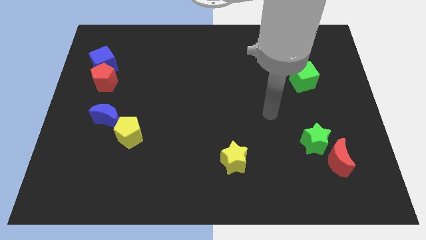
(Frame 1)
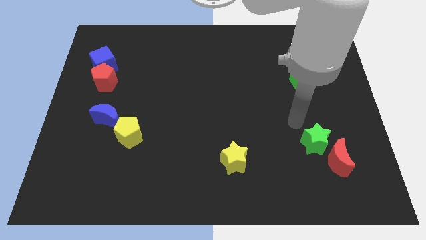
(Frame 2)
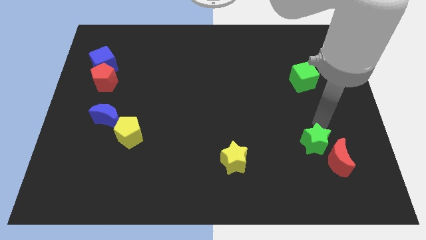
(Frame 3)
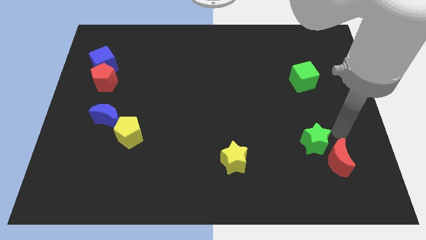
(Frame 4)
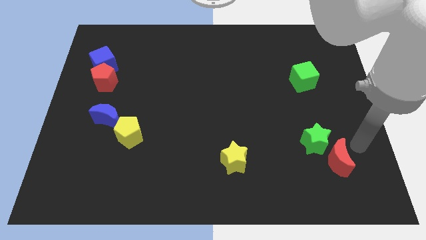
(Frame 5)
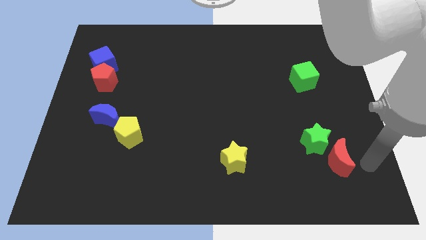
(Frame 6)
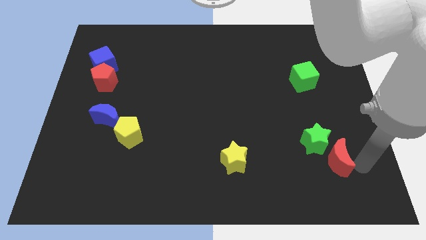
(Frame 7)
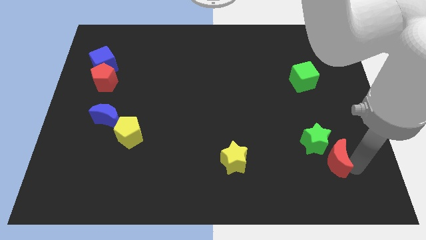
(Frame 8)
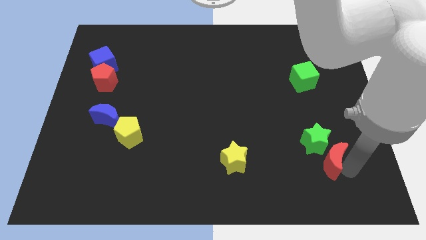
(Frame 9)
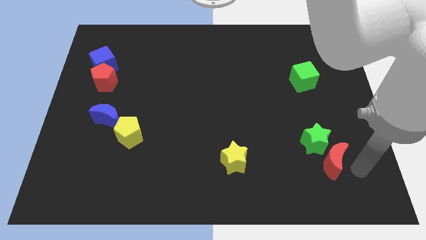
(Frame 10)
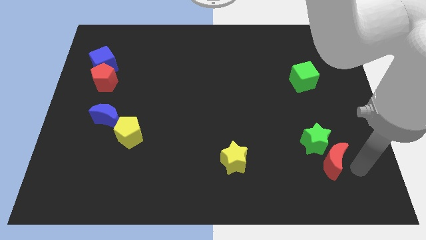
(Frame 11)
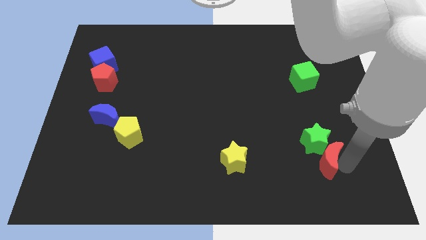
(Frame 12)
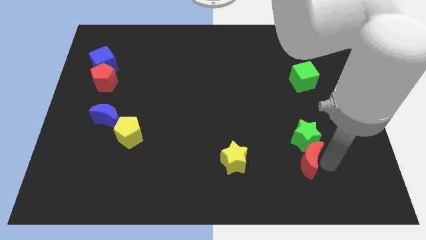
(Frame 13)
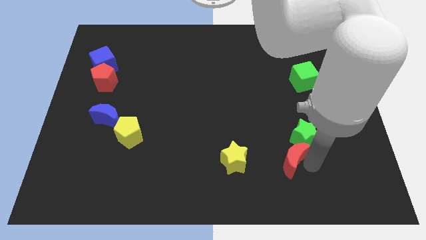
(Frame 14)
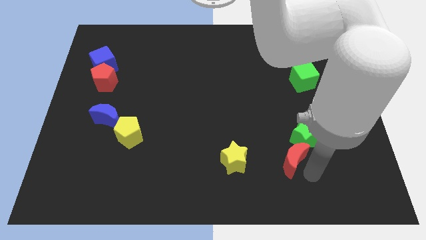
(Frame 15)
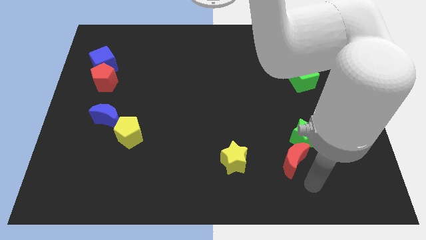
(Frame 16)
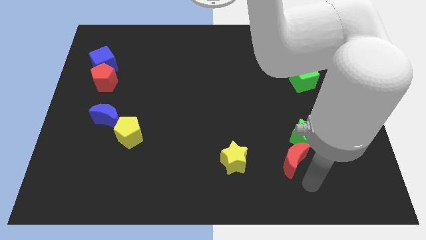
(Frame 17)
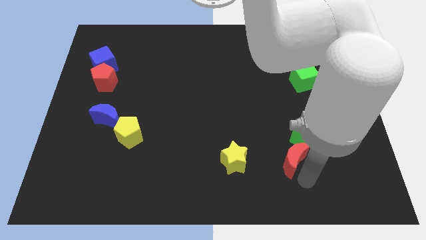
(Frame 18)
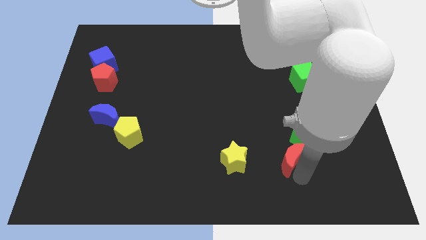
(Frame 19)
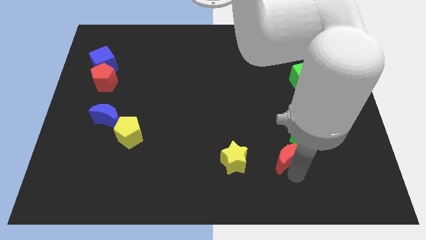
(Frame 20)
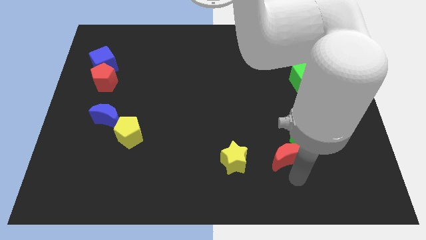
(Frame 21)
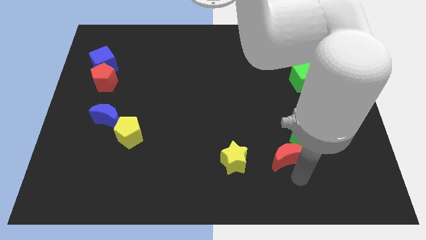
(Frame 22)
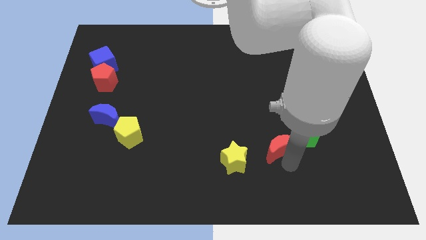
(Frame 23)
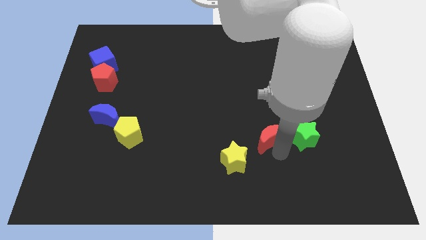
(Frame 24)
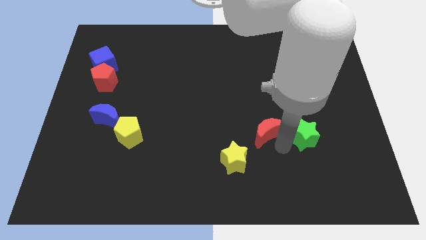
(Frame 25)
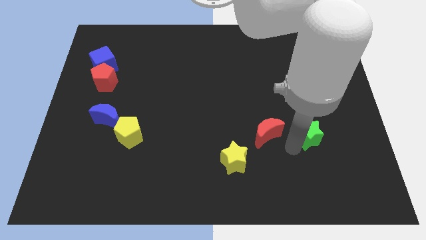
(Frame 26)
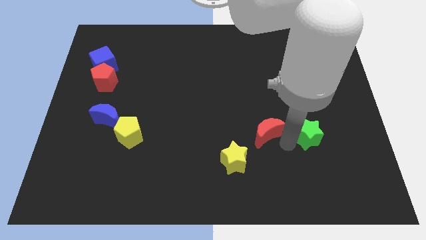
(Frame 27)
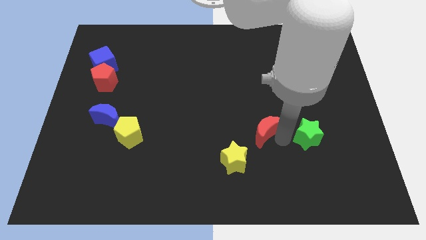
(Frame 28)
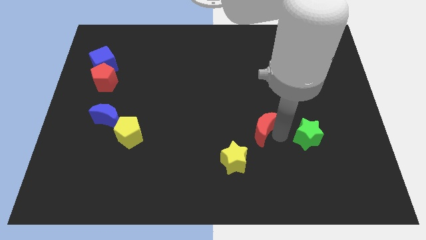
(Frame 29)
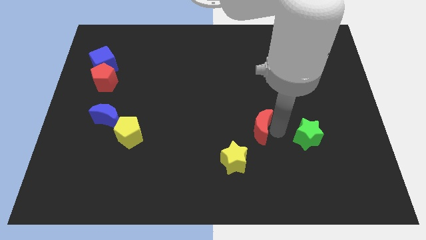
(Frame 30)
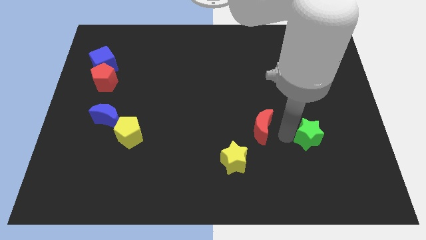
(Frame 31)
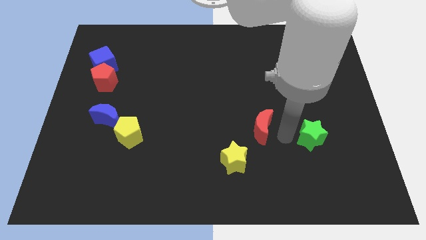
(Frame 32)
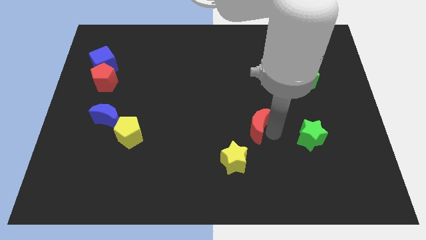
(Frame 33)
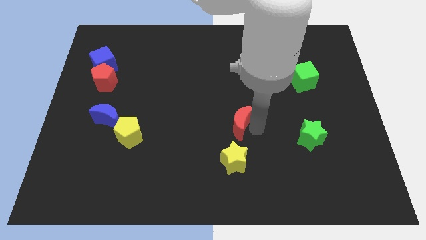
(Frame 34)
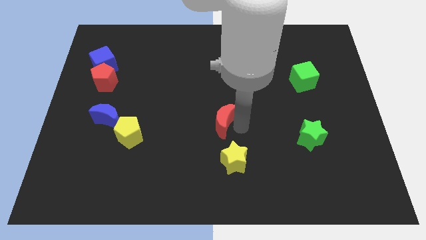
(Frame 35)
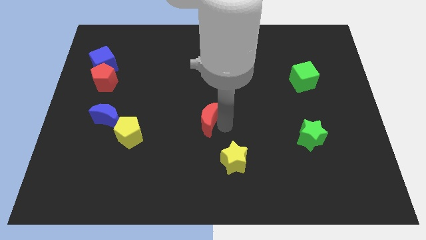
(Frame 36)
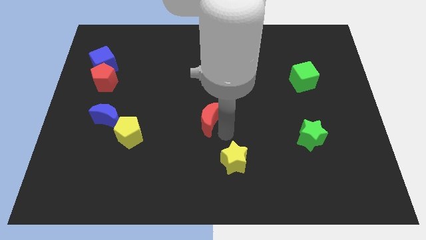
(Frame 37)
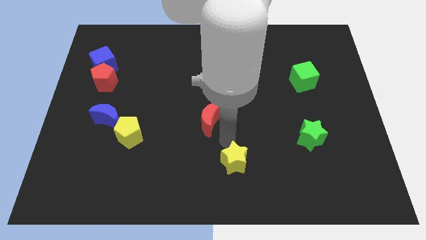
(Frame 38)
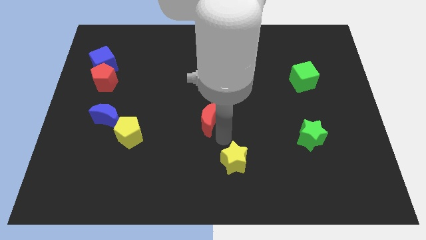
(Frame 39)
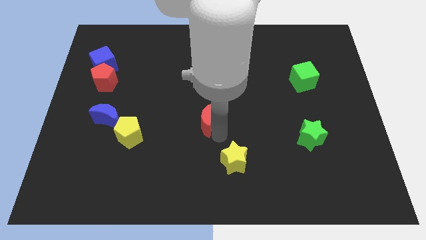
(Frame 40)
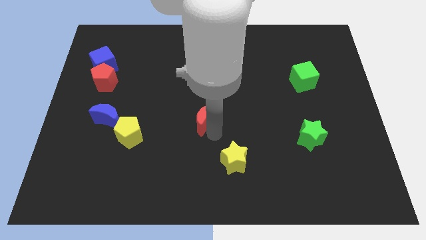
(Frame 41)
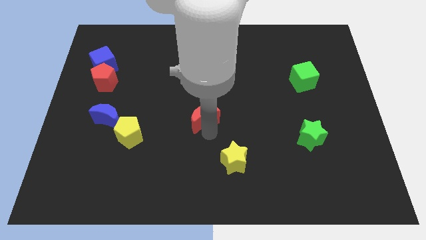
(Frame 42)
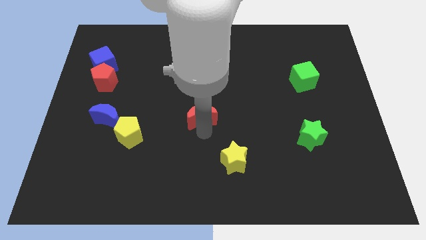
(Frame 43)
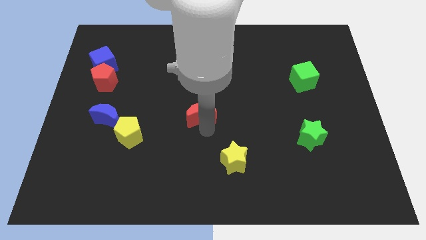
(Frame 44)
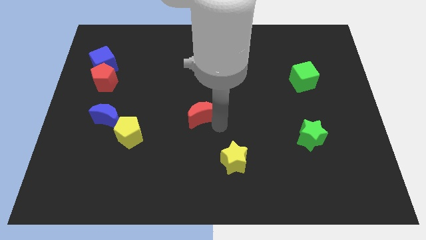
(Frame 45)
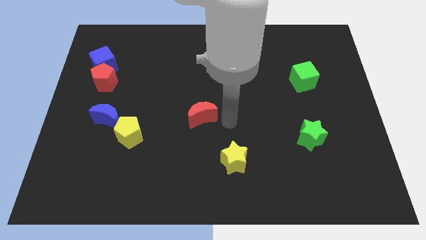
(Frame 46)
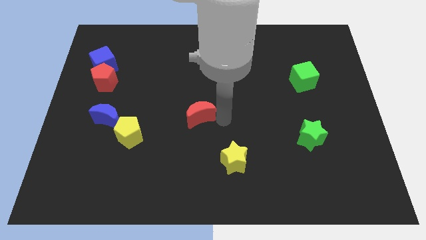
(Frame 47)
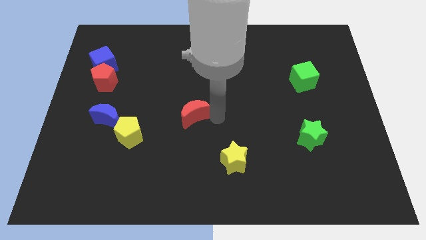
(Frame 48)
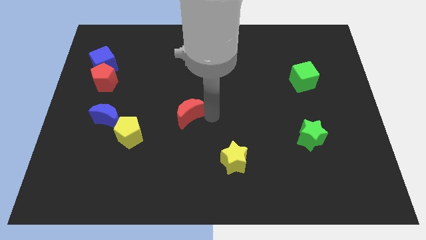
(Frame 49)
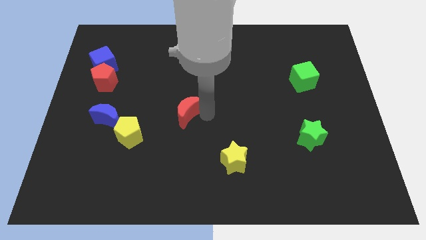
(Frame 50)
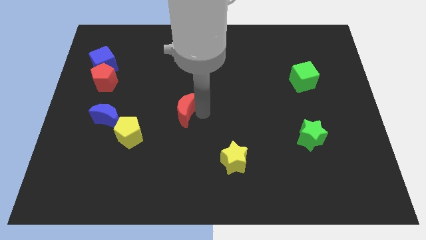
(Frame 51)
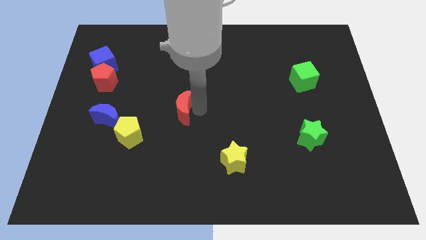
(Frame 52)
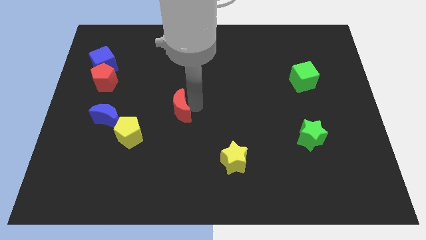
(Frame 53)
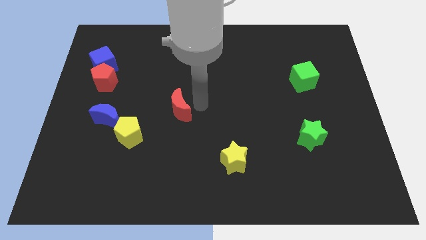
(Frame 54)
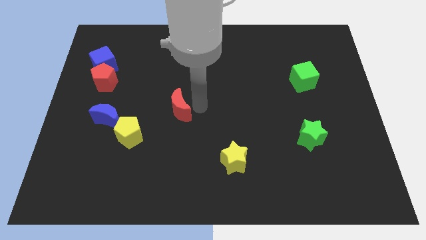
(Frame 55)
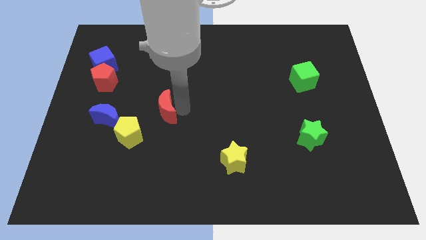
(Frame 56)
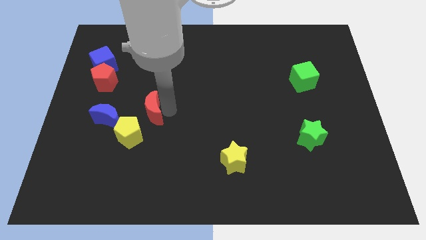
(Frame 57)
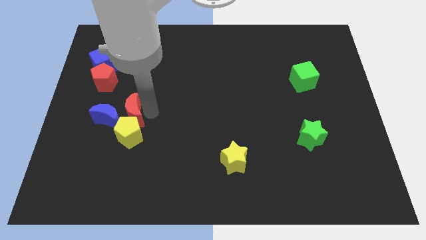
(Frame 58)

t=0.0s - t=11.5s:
push the red moon to the blue moon

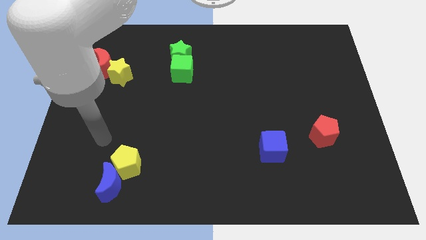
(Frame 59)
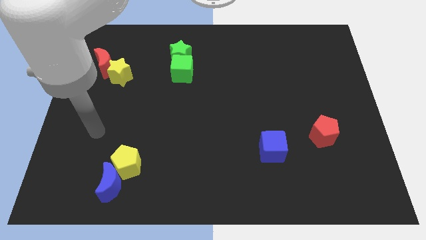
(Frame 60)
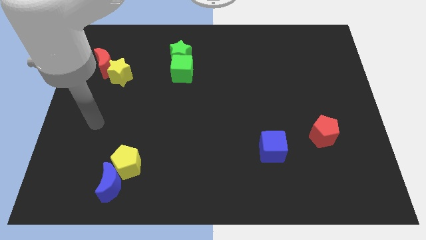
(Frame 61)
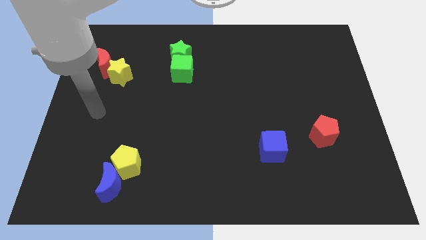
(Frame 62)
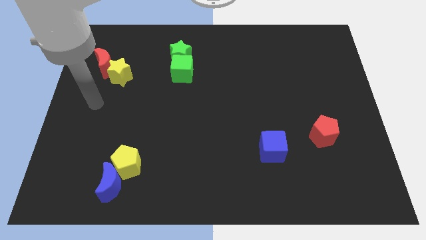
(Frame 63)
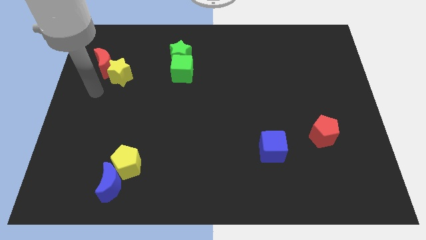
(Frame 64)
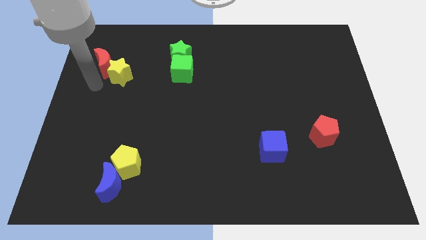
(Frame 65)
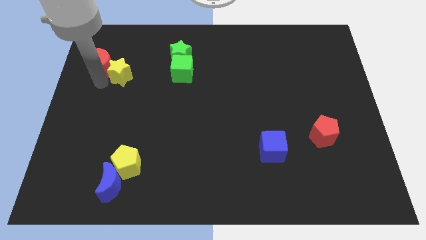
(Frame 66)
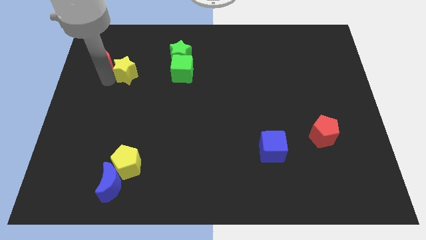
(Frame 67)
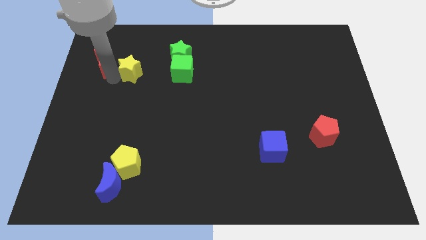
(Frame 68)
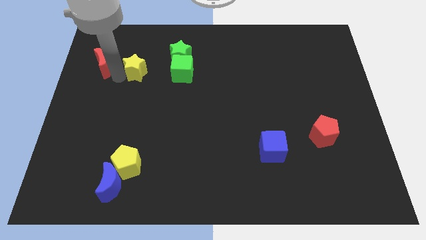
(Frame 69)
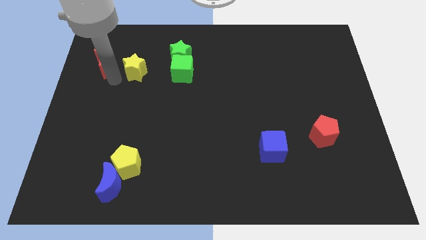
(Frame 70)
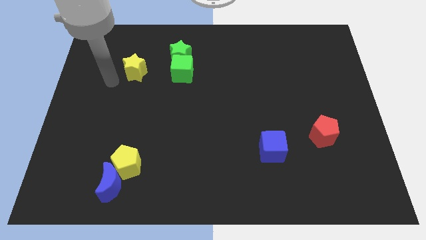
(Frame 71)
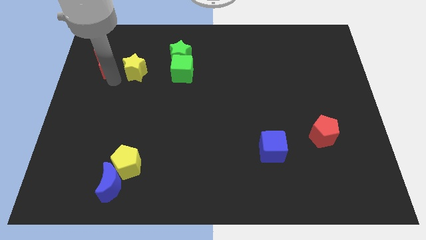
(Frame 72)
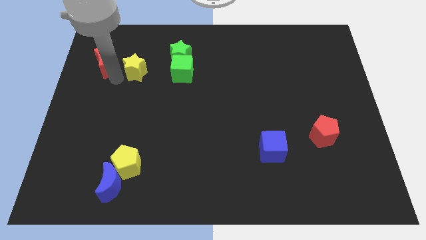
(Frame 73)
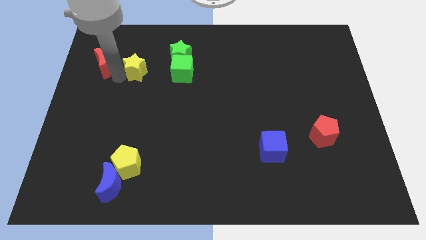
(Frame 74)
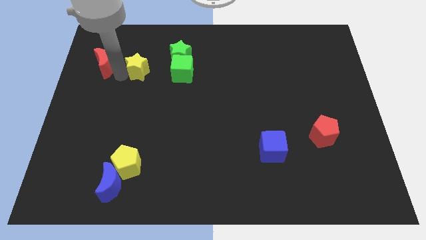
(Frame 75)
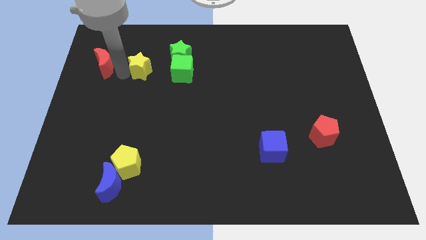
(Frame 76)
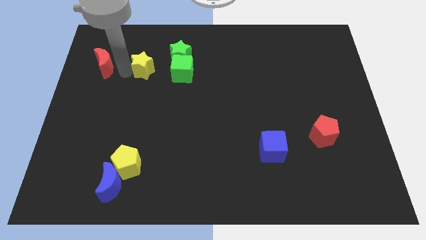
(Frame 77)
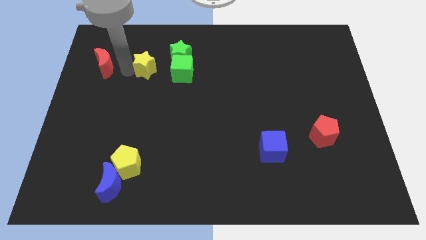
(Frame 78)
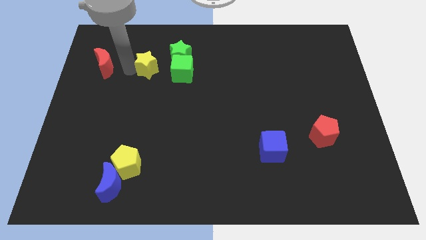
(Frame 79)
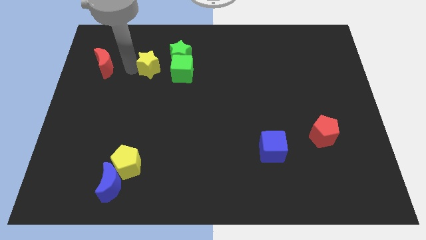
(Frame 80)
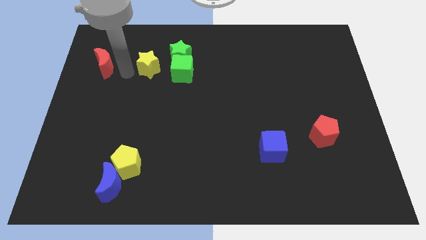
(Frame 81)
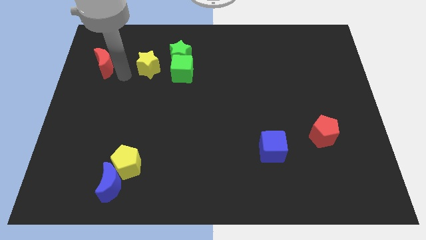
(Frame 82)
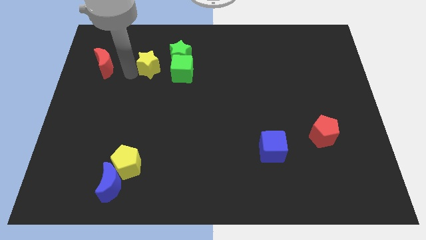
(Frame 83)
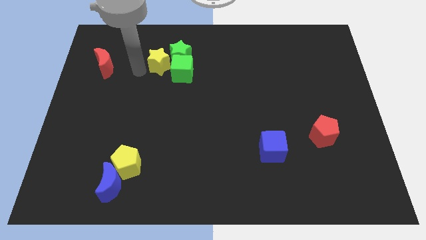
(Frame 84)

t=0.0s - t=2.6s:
slide the yellow star to the green star
